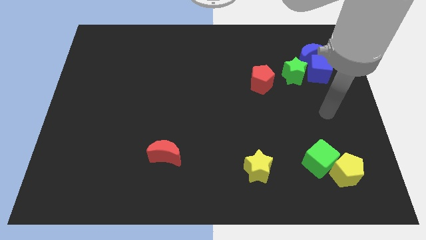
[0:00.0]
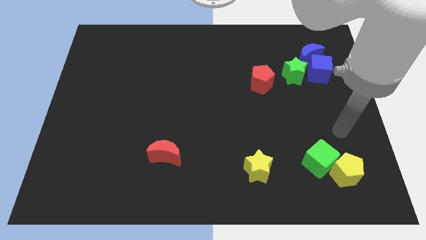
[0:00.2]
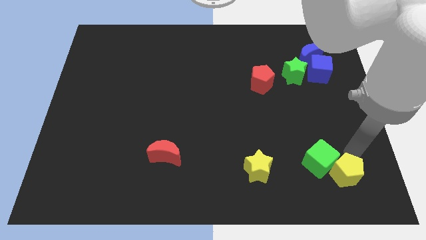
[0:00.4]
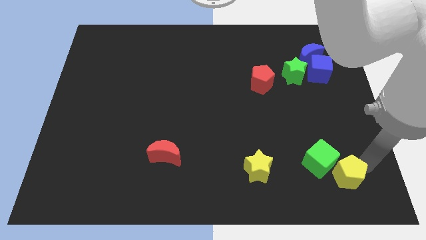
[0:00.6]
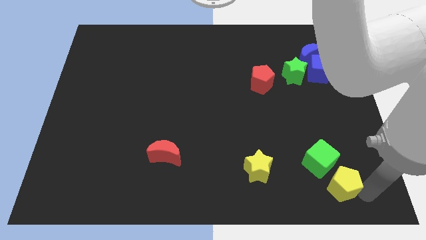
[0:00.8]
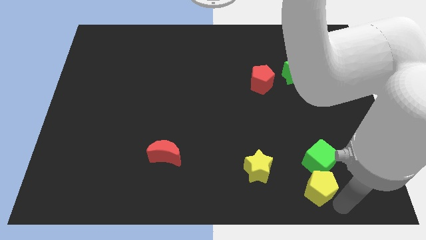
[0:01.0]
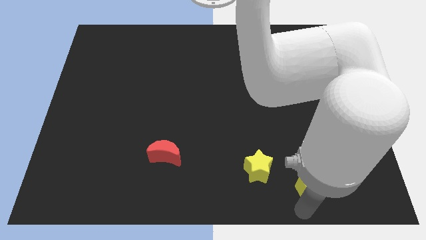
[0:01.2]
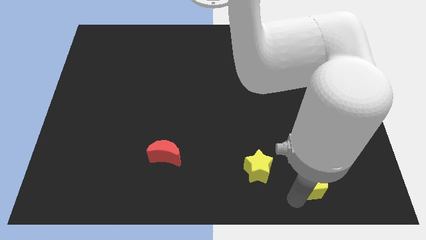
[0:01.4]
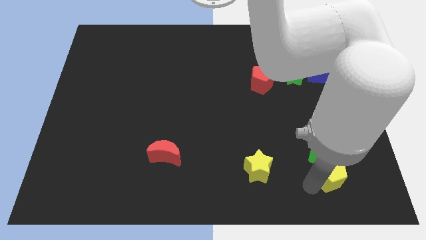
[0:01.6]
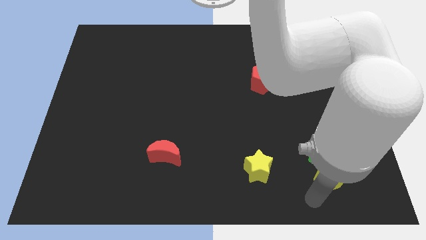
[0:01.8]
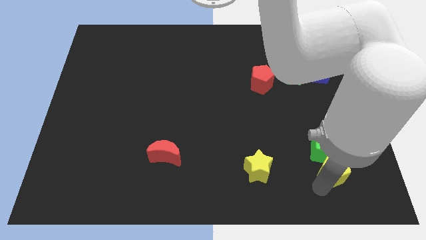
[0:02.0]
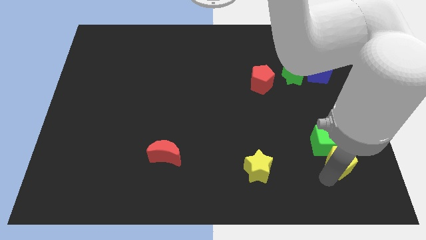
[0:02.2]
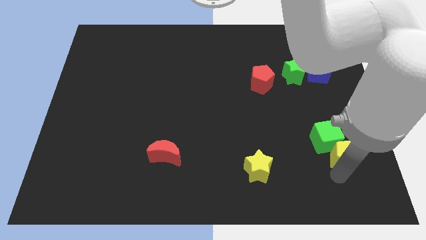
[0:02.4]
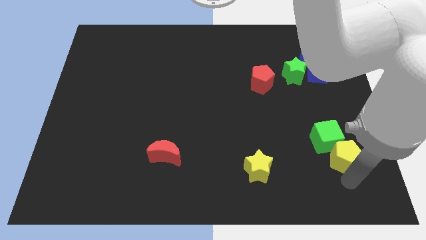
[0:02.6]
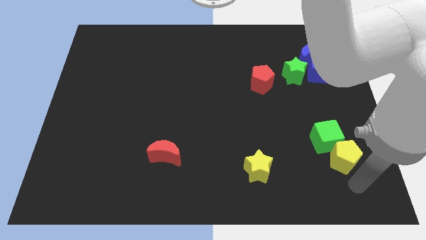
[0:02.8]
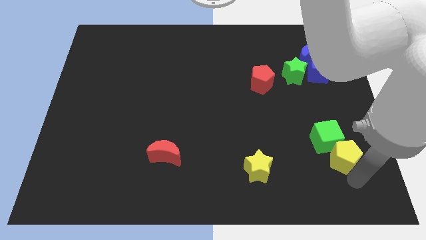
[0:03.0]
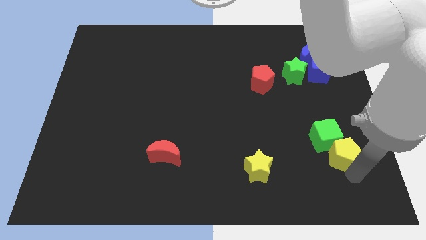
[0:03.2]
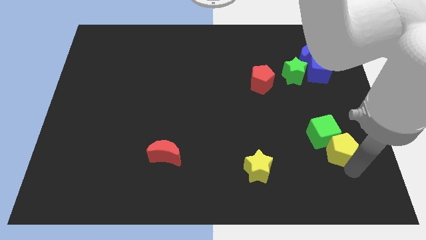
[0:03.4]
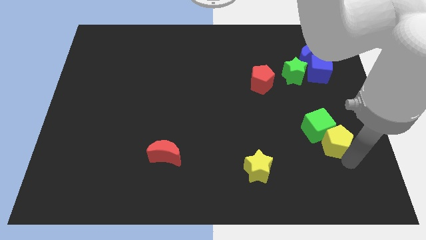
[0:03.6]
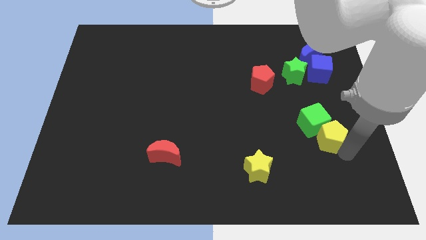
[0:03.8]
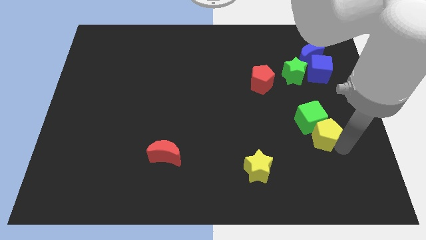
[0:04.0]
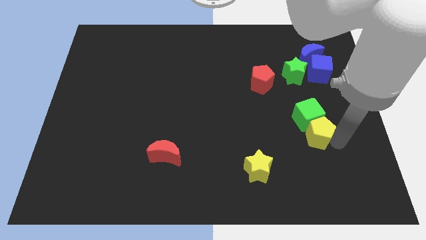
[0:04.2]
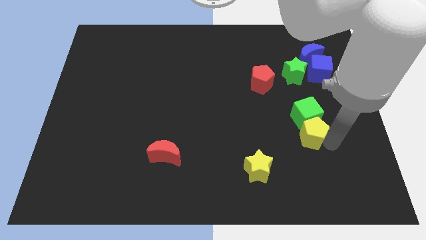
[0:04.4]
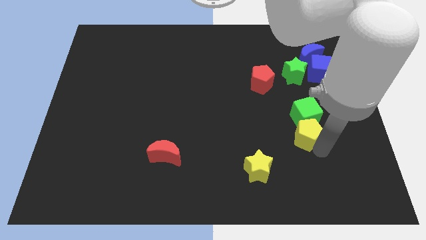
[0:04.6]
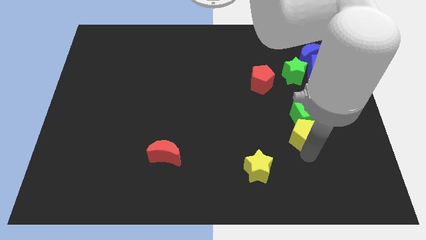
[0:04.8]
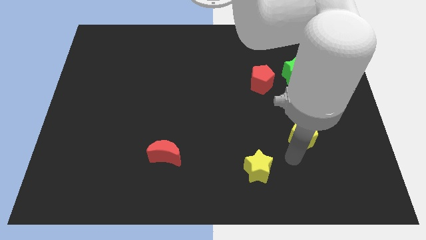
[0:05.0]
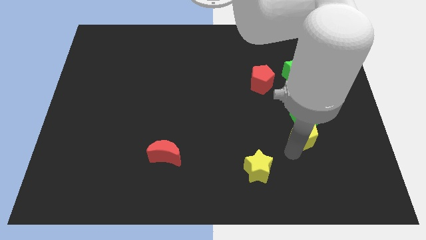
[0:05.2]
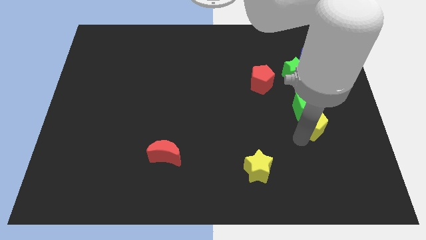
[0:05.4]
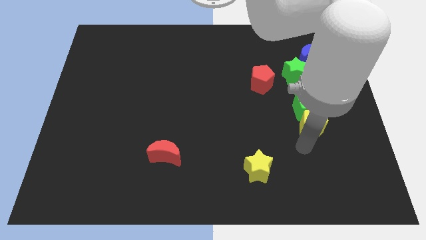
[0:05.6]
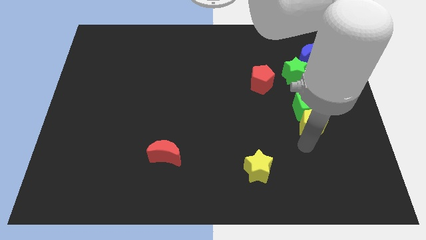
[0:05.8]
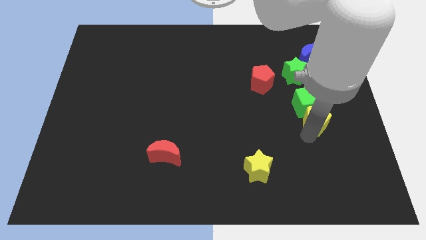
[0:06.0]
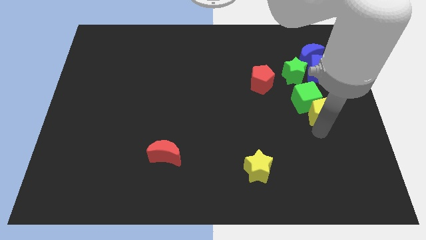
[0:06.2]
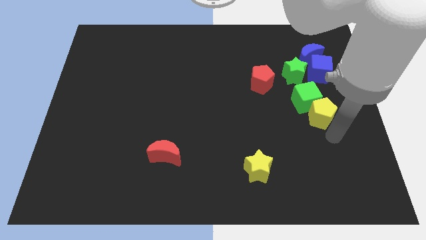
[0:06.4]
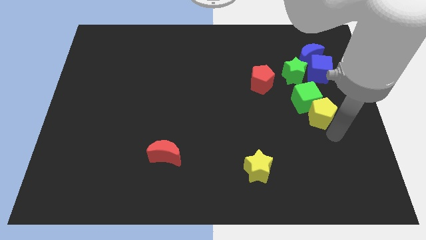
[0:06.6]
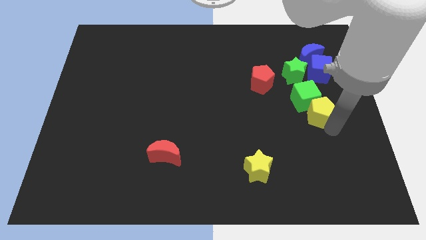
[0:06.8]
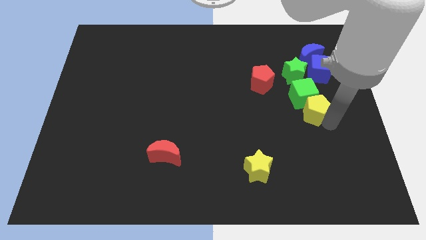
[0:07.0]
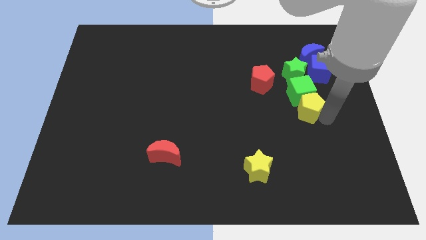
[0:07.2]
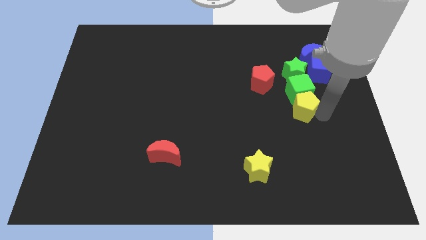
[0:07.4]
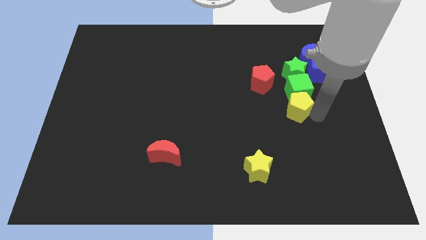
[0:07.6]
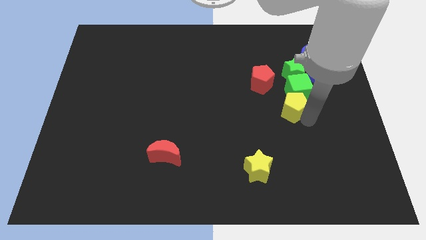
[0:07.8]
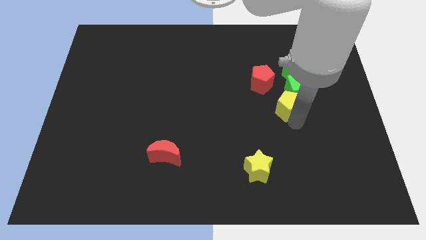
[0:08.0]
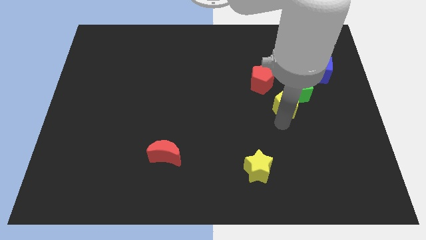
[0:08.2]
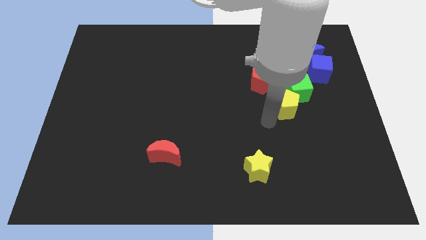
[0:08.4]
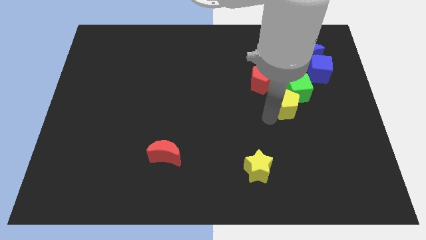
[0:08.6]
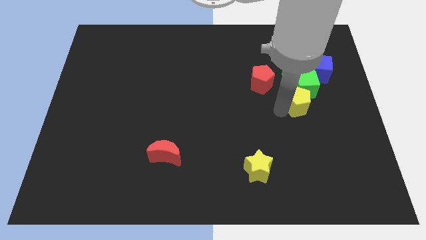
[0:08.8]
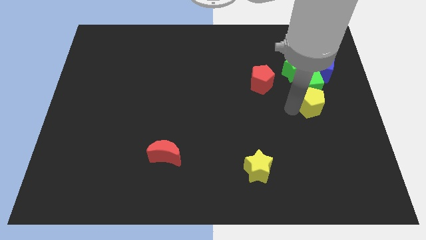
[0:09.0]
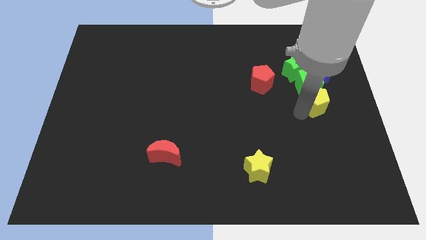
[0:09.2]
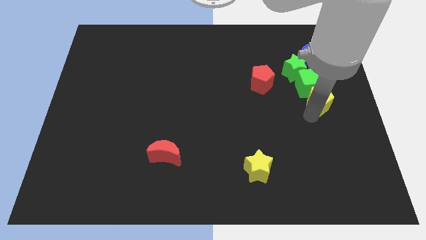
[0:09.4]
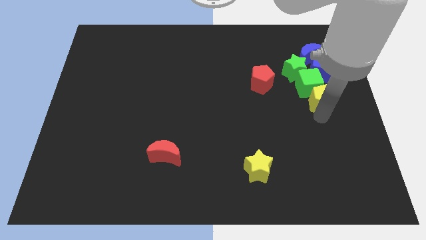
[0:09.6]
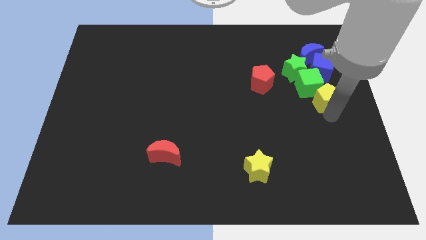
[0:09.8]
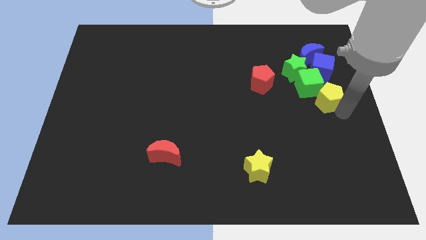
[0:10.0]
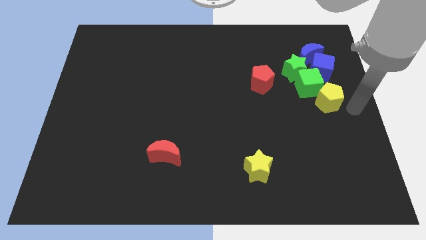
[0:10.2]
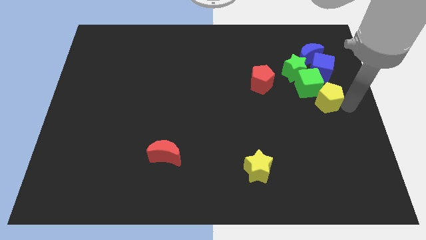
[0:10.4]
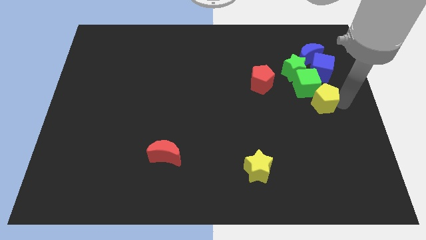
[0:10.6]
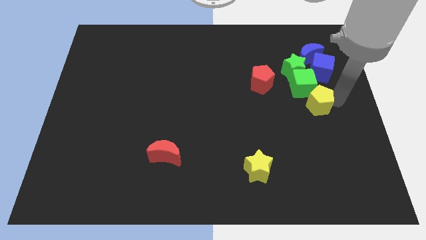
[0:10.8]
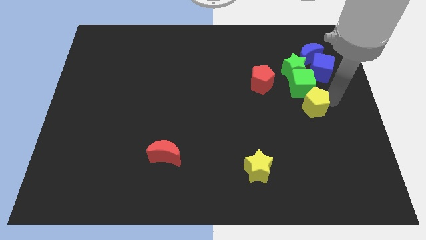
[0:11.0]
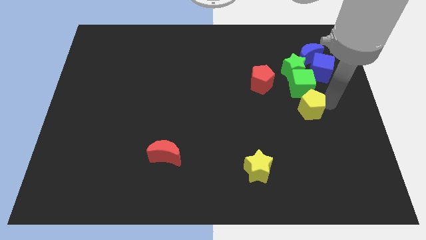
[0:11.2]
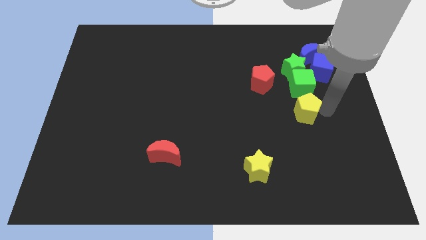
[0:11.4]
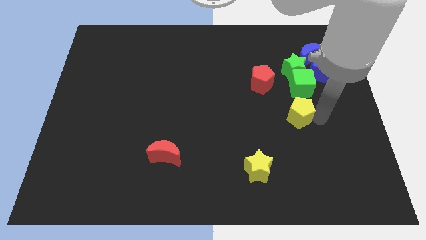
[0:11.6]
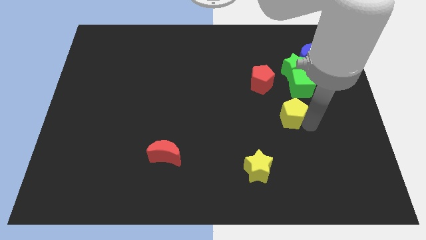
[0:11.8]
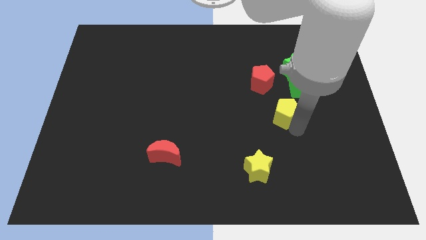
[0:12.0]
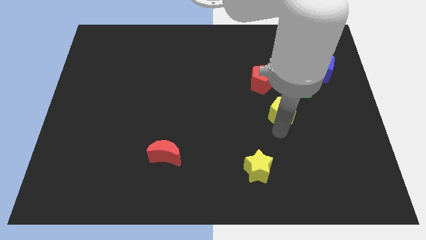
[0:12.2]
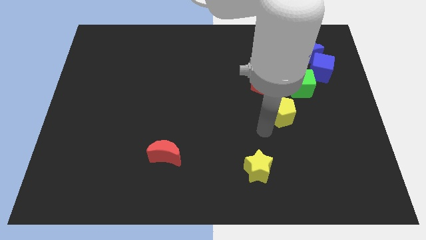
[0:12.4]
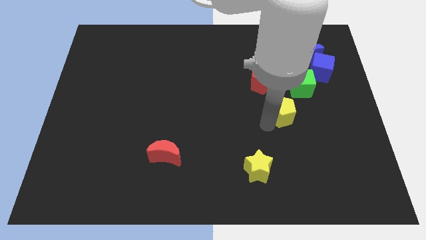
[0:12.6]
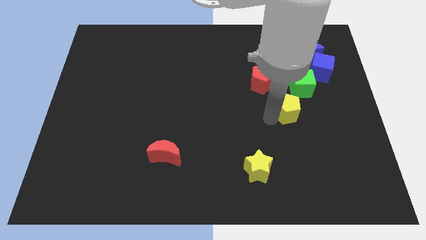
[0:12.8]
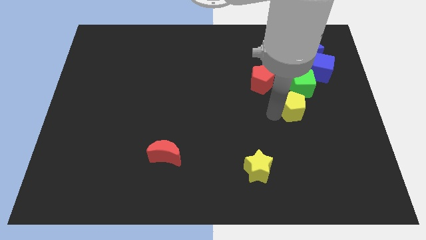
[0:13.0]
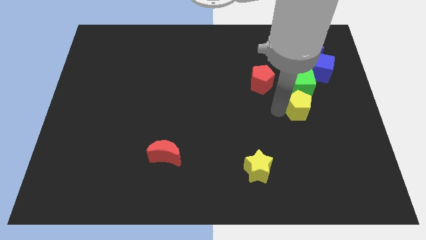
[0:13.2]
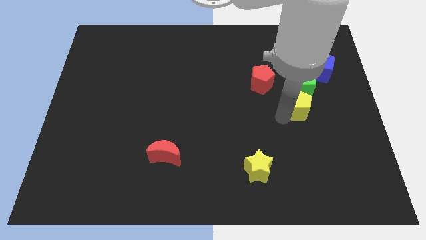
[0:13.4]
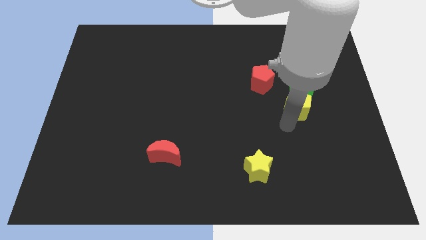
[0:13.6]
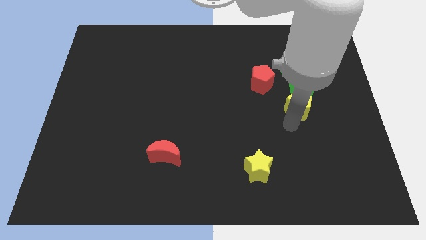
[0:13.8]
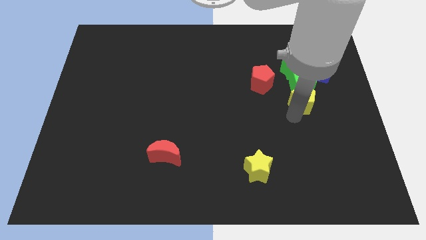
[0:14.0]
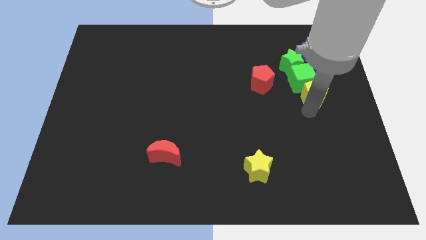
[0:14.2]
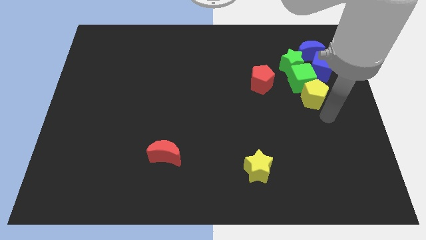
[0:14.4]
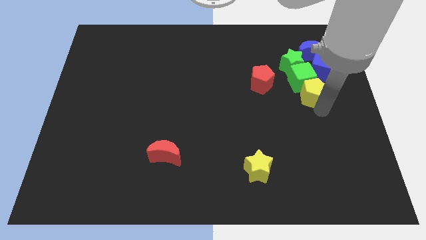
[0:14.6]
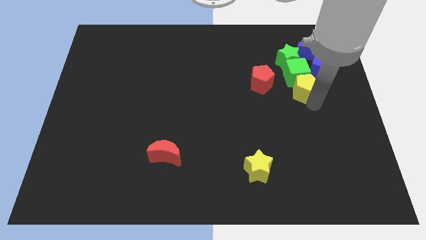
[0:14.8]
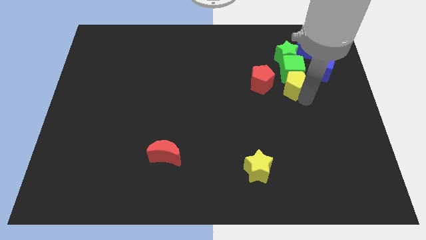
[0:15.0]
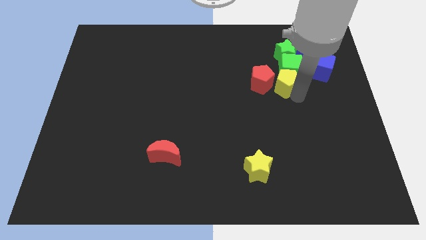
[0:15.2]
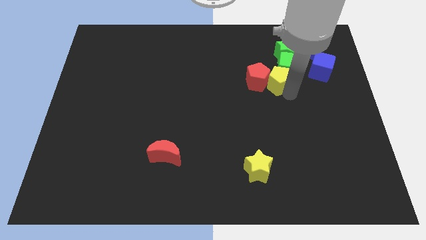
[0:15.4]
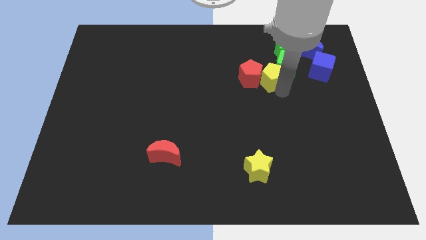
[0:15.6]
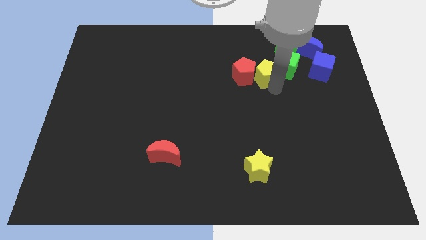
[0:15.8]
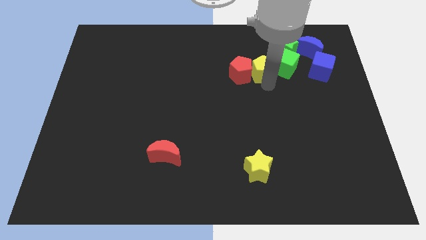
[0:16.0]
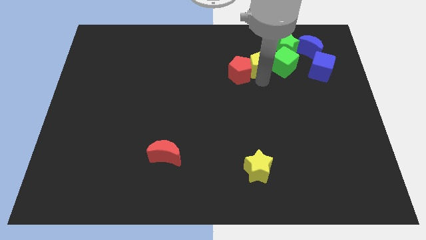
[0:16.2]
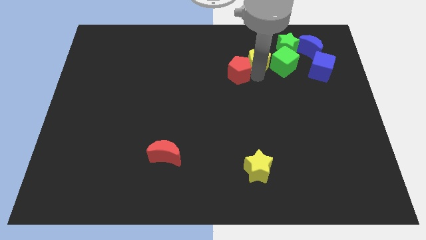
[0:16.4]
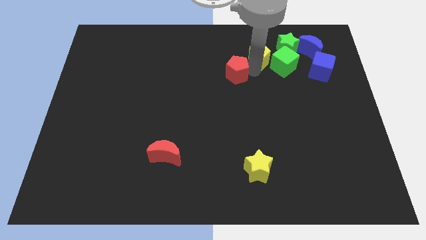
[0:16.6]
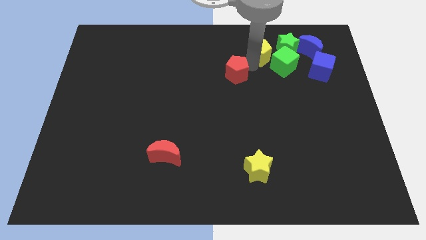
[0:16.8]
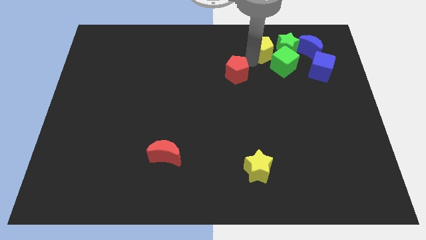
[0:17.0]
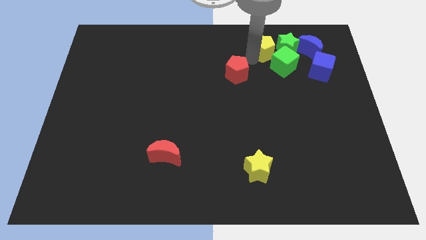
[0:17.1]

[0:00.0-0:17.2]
move the yellow pentagon to the green star
